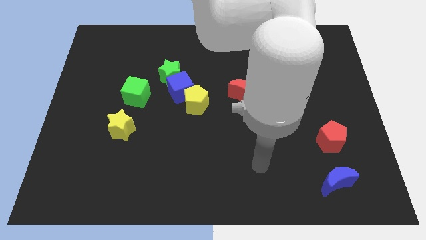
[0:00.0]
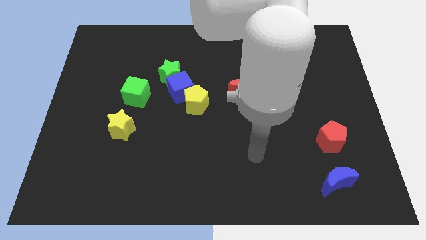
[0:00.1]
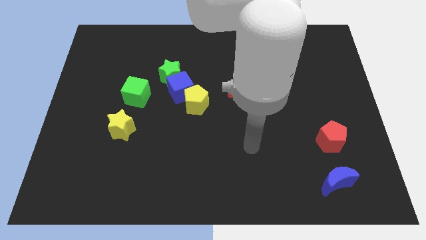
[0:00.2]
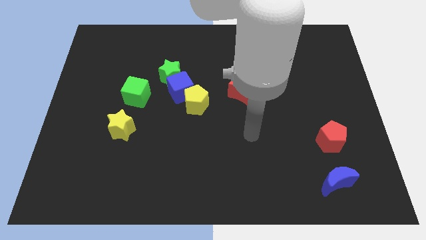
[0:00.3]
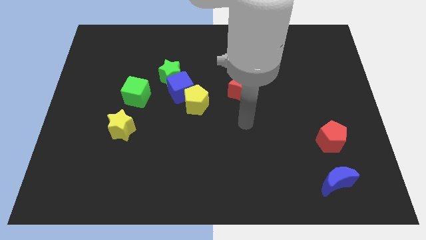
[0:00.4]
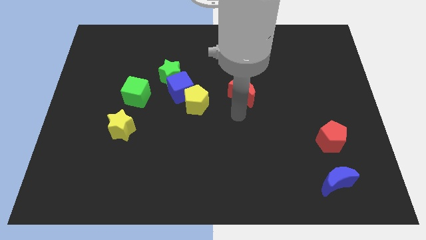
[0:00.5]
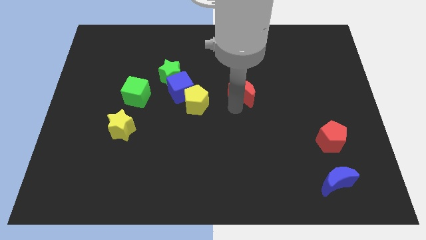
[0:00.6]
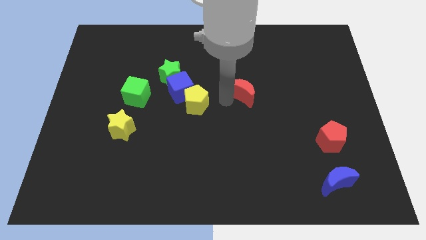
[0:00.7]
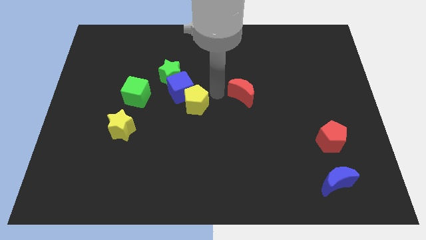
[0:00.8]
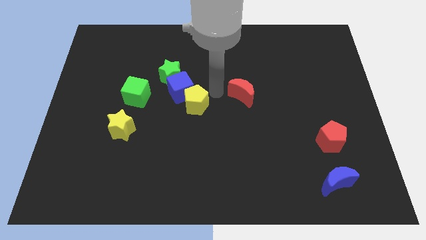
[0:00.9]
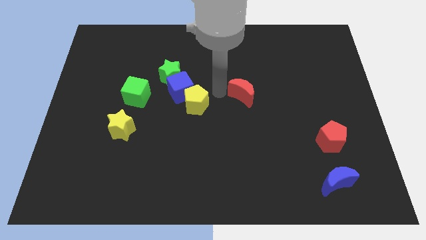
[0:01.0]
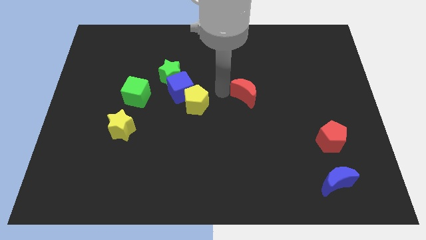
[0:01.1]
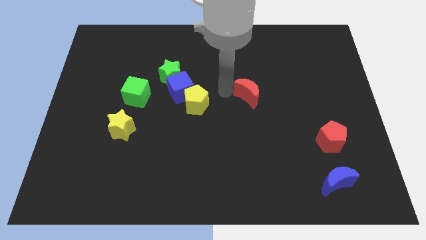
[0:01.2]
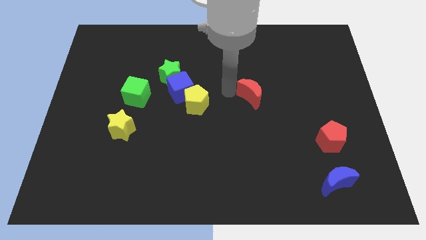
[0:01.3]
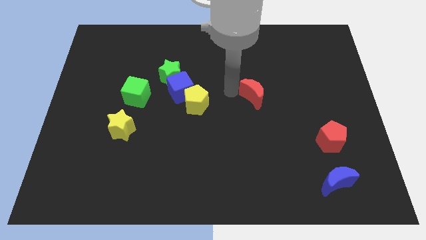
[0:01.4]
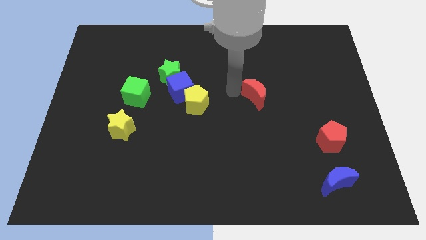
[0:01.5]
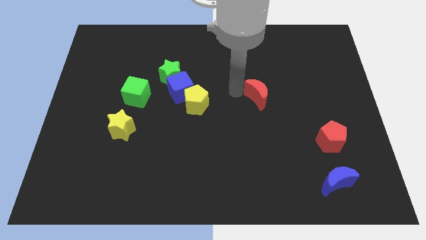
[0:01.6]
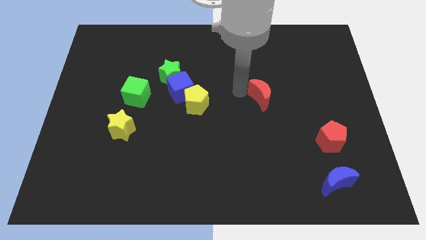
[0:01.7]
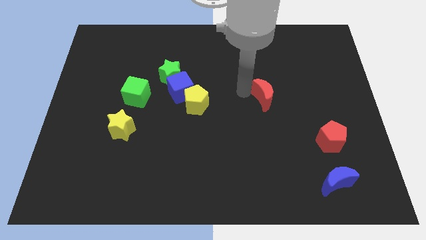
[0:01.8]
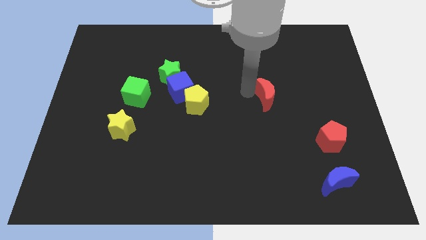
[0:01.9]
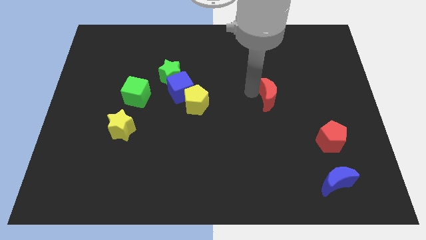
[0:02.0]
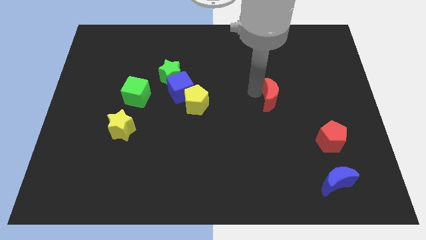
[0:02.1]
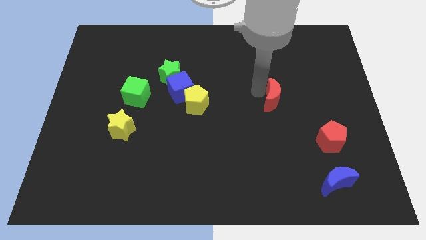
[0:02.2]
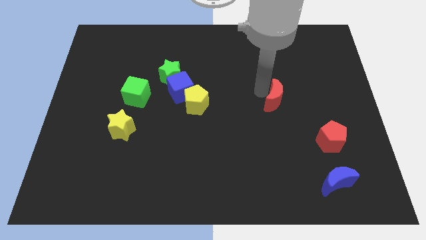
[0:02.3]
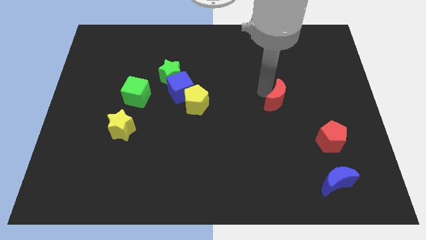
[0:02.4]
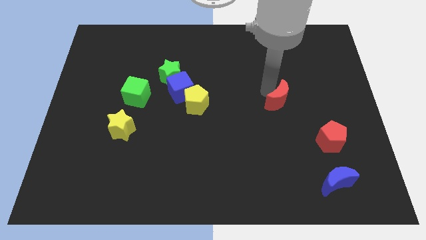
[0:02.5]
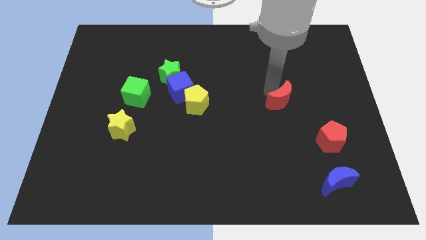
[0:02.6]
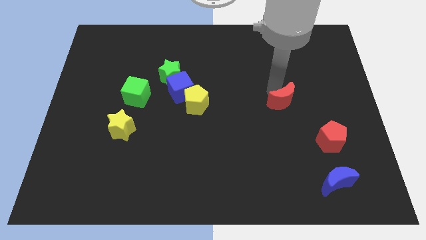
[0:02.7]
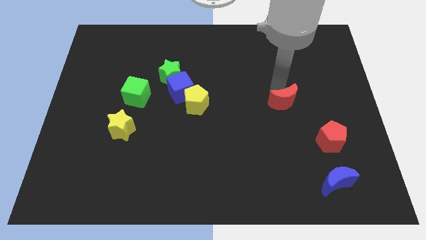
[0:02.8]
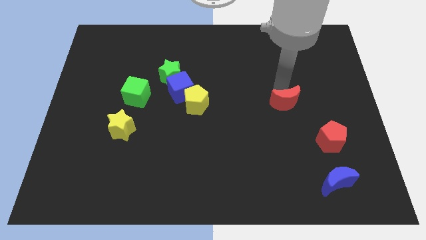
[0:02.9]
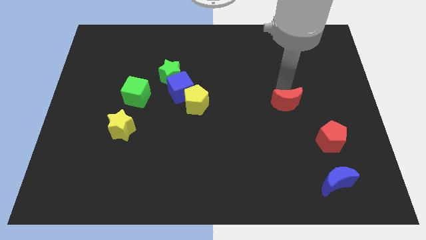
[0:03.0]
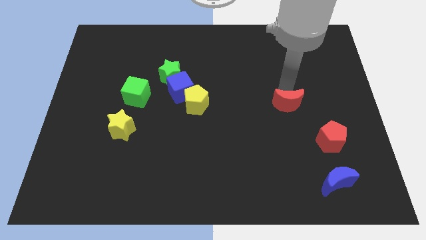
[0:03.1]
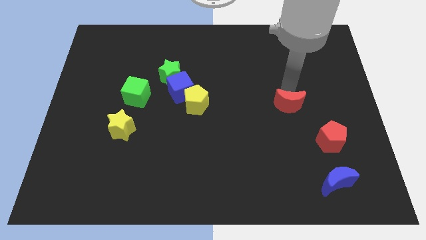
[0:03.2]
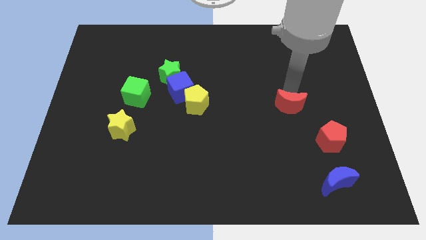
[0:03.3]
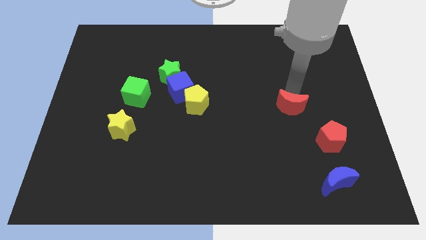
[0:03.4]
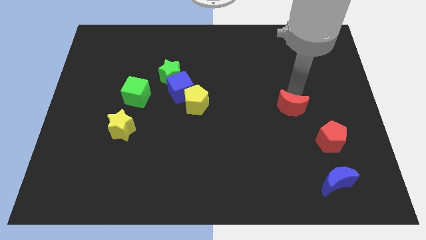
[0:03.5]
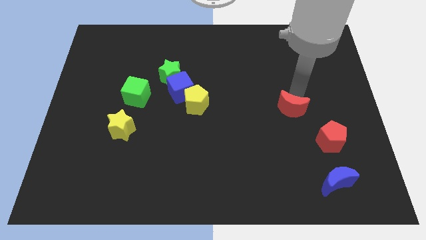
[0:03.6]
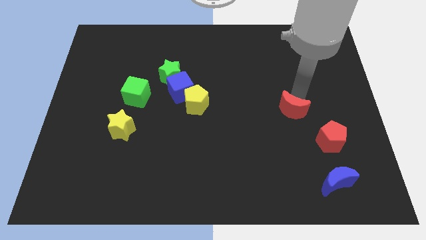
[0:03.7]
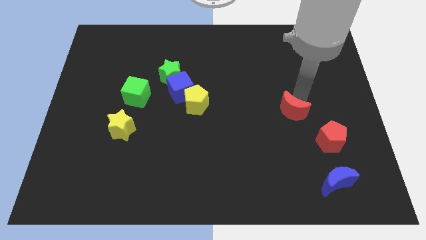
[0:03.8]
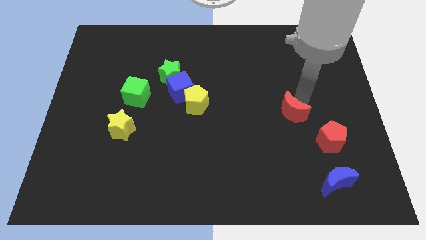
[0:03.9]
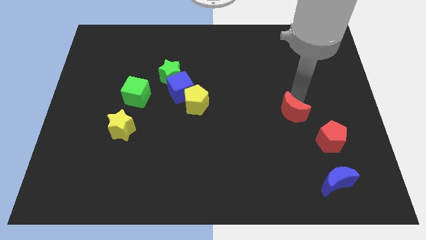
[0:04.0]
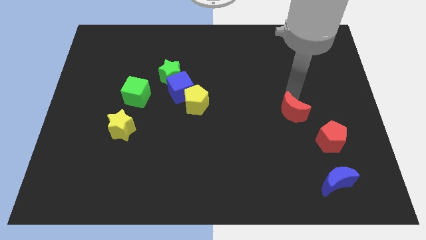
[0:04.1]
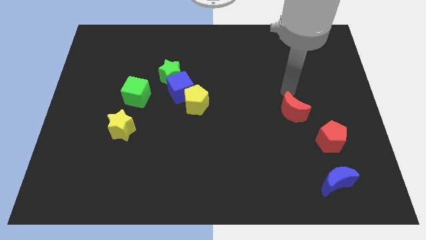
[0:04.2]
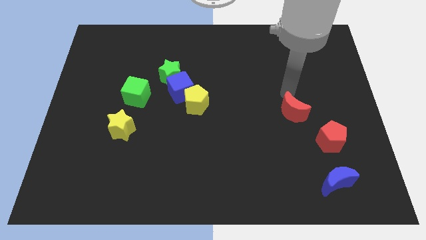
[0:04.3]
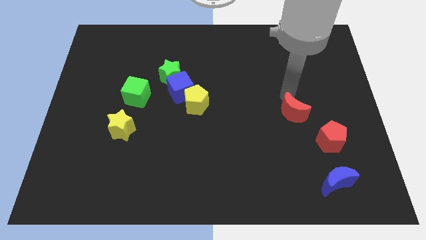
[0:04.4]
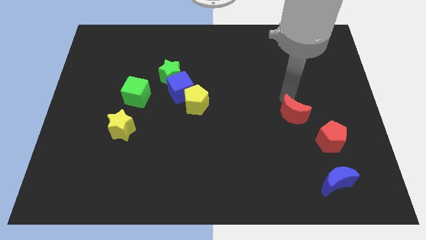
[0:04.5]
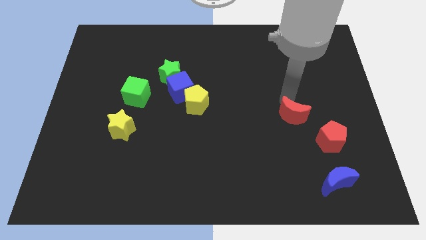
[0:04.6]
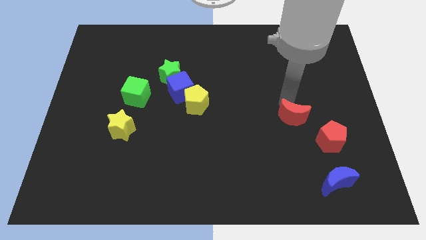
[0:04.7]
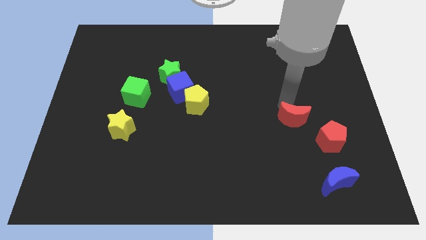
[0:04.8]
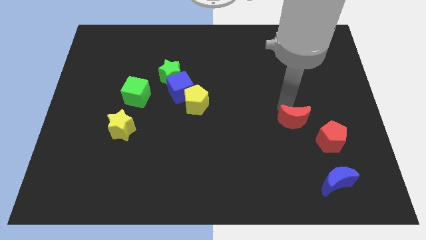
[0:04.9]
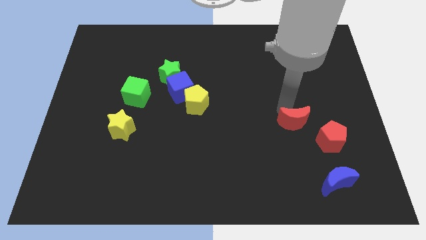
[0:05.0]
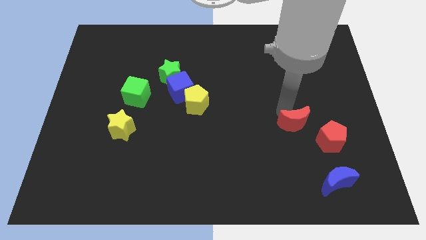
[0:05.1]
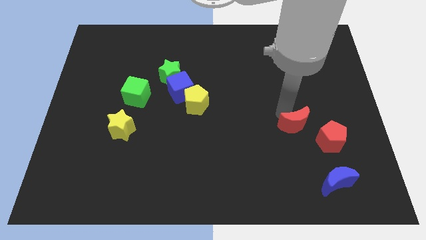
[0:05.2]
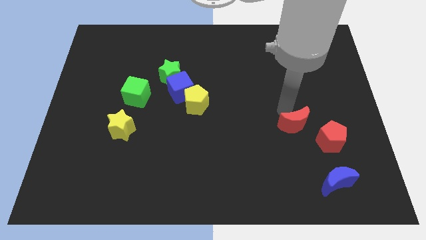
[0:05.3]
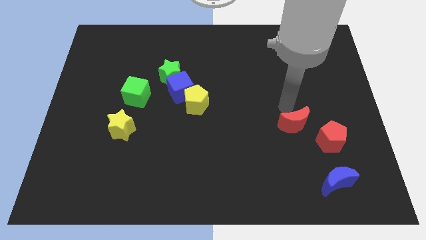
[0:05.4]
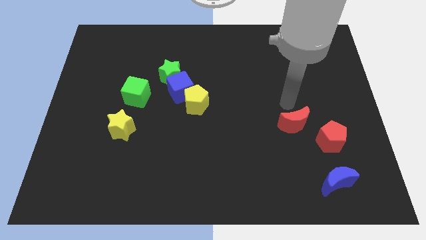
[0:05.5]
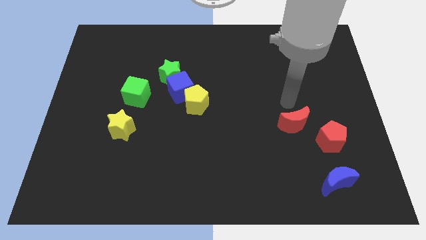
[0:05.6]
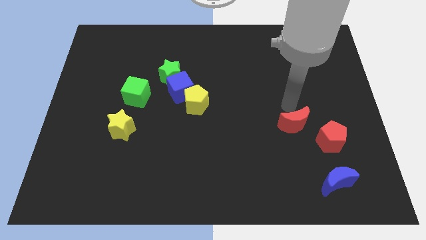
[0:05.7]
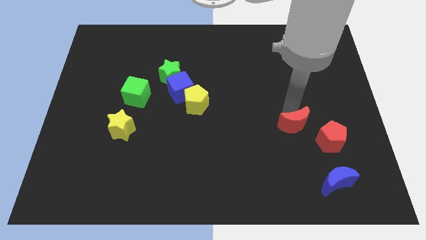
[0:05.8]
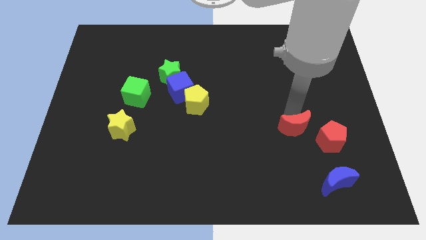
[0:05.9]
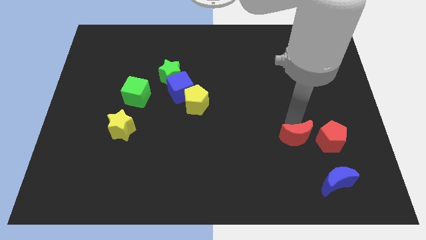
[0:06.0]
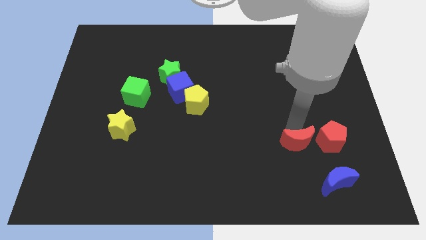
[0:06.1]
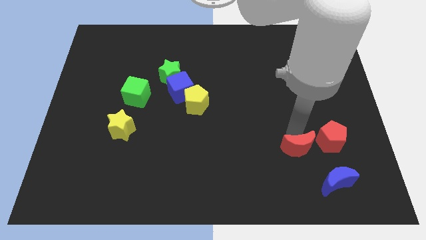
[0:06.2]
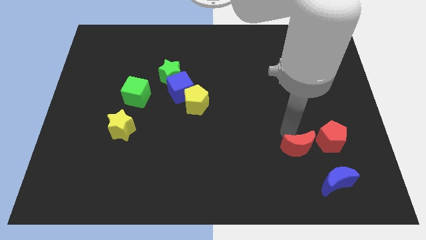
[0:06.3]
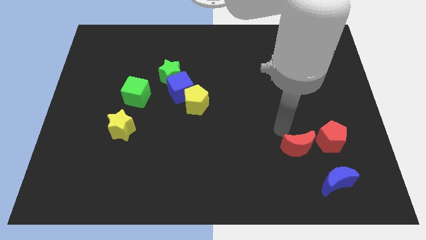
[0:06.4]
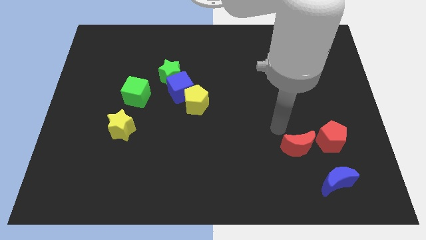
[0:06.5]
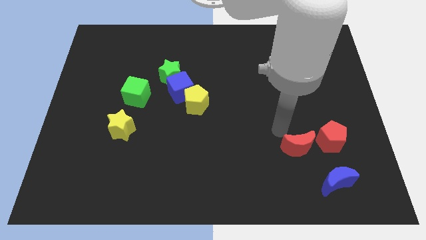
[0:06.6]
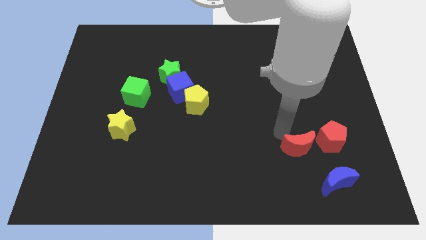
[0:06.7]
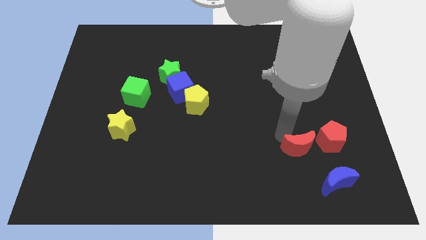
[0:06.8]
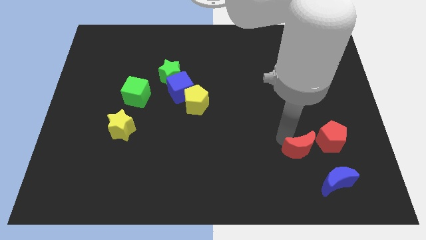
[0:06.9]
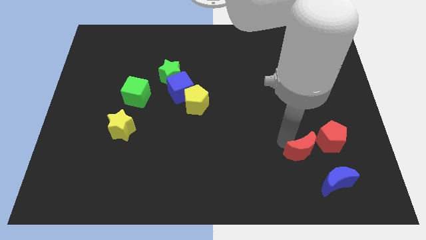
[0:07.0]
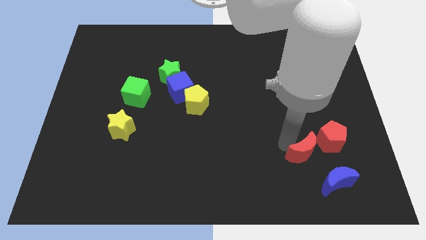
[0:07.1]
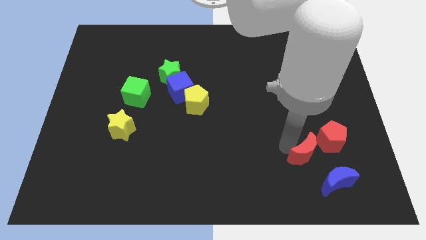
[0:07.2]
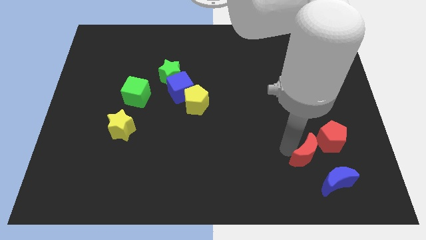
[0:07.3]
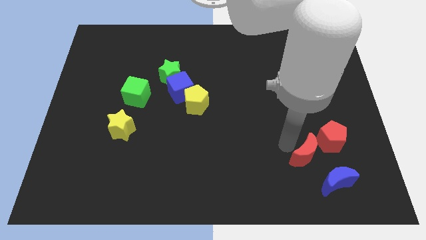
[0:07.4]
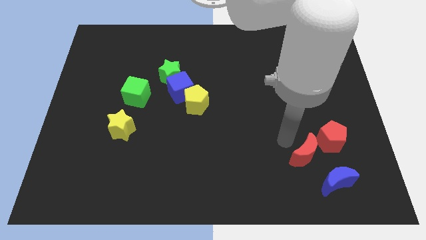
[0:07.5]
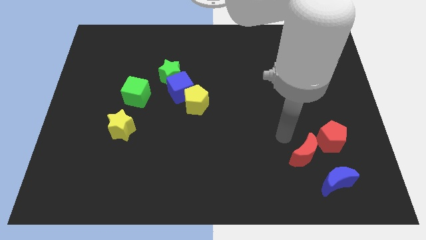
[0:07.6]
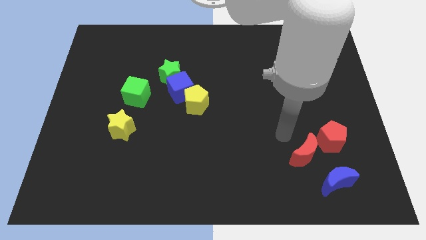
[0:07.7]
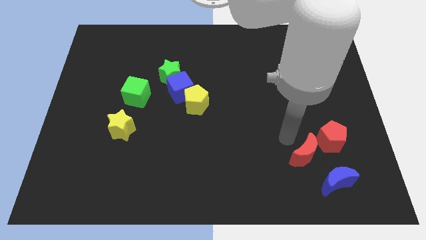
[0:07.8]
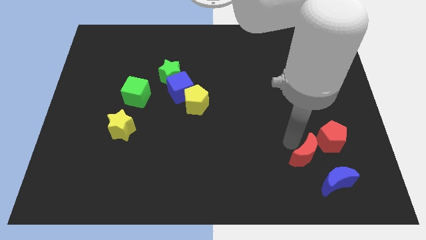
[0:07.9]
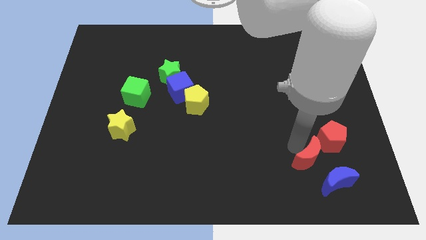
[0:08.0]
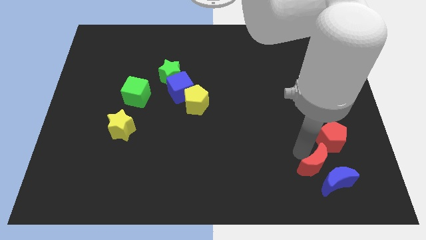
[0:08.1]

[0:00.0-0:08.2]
push the red moon towards the blue moon
